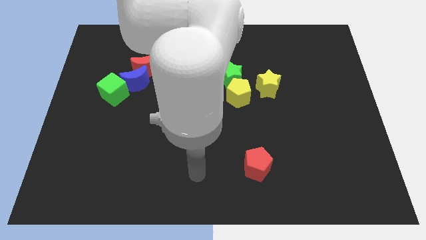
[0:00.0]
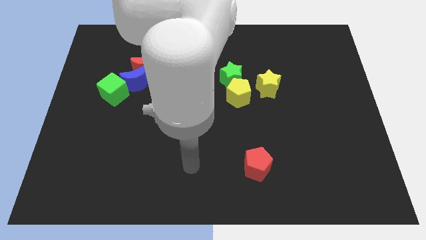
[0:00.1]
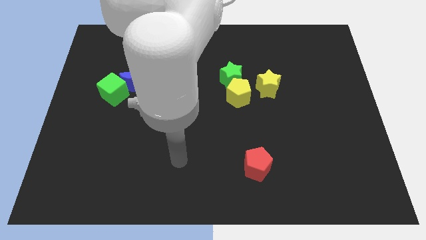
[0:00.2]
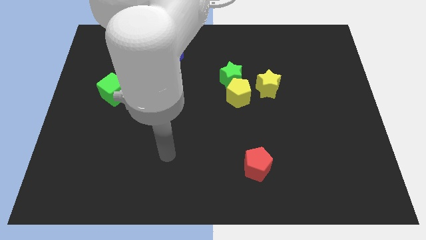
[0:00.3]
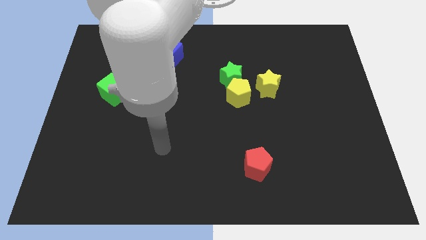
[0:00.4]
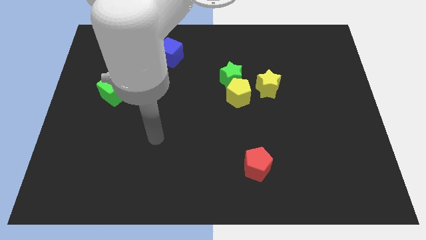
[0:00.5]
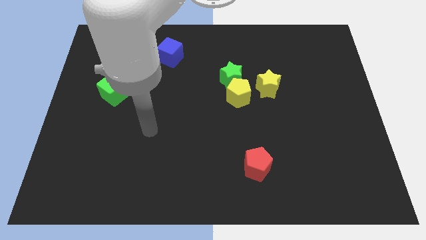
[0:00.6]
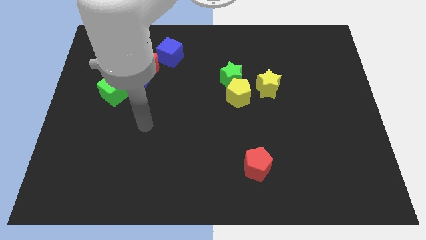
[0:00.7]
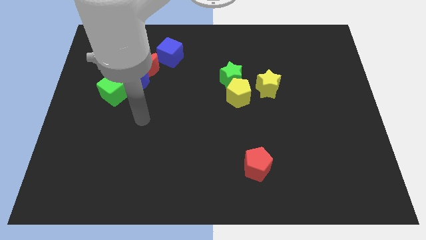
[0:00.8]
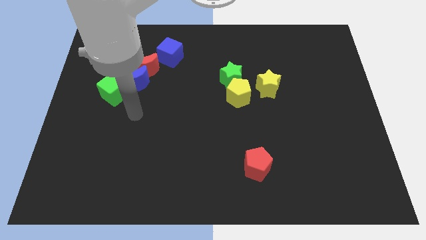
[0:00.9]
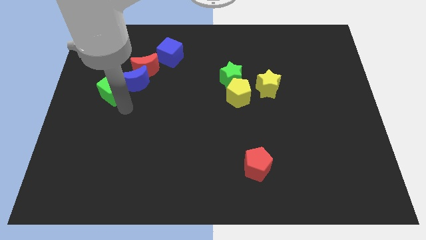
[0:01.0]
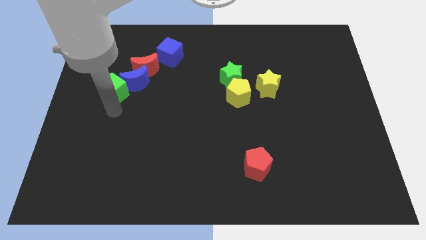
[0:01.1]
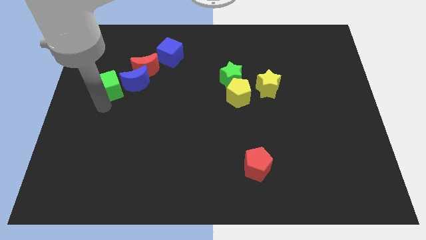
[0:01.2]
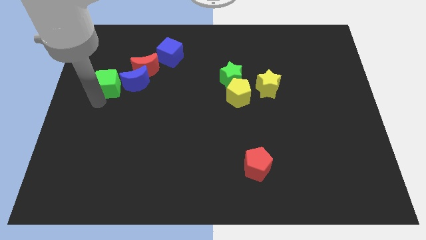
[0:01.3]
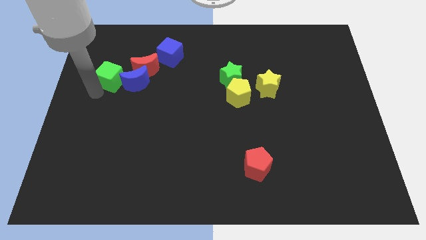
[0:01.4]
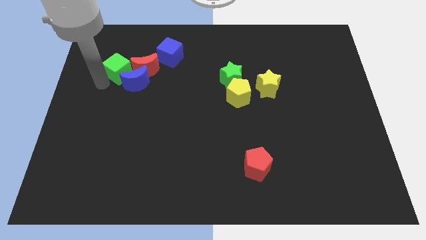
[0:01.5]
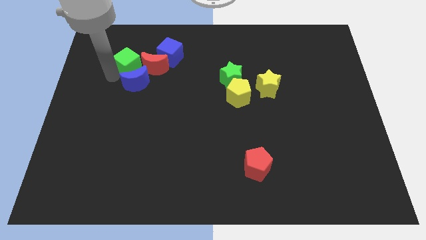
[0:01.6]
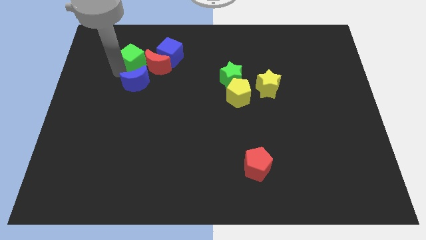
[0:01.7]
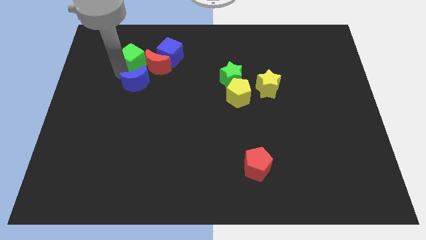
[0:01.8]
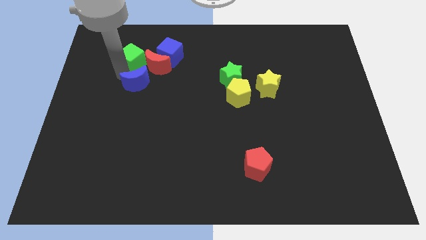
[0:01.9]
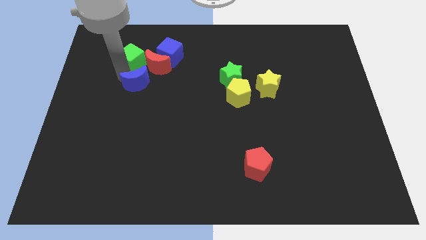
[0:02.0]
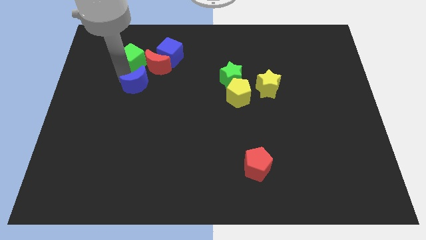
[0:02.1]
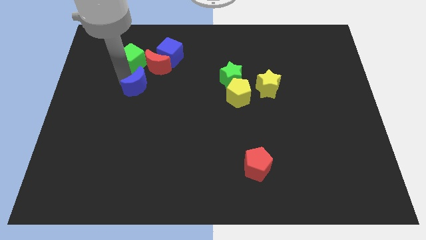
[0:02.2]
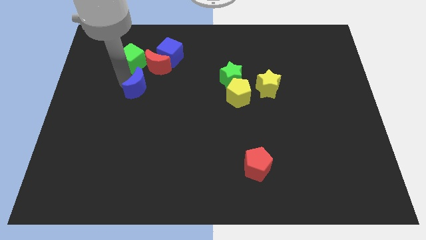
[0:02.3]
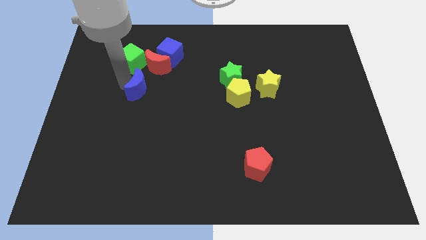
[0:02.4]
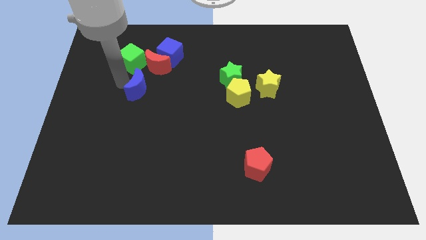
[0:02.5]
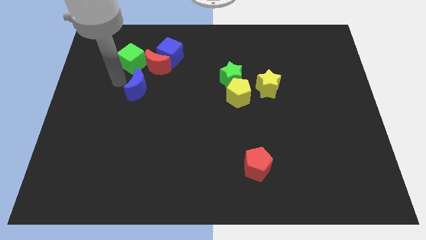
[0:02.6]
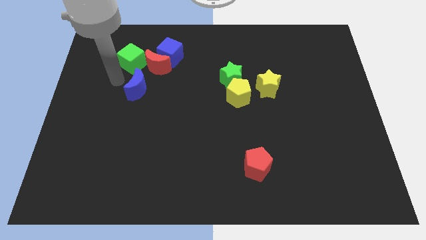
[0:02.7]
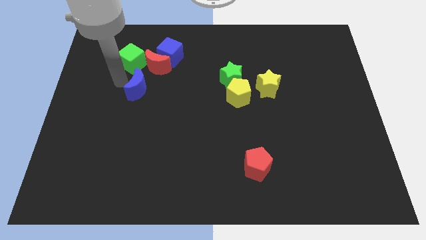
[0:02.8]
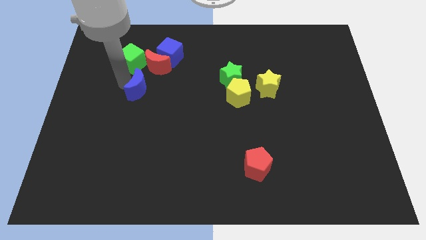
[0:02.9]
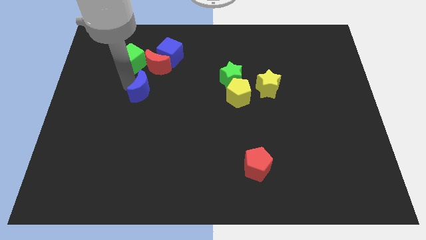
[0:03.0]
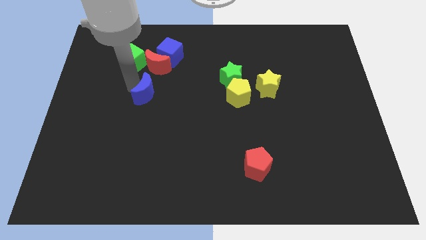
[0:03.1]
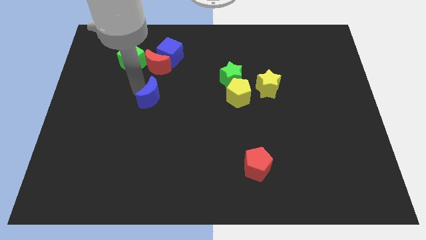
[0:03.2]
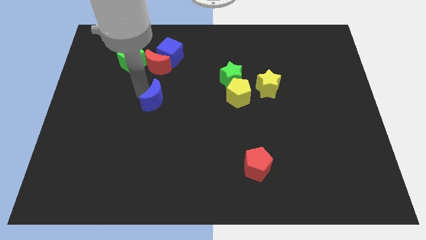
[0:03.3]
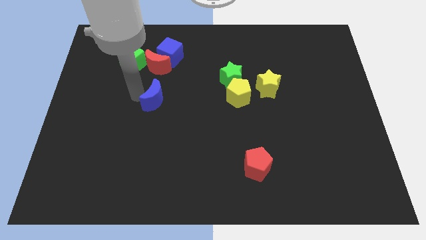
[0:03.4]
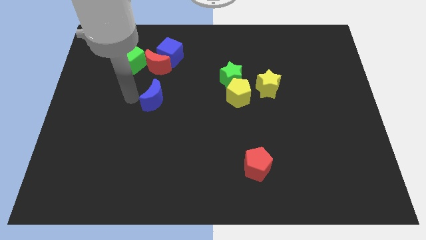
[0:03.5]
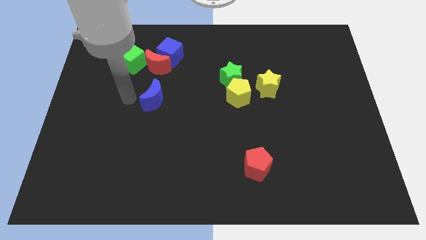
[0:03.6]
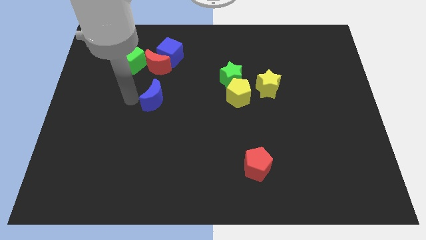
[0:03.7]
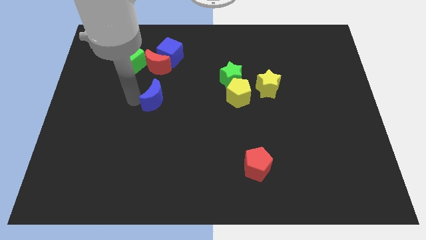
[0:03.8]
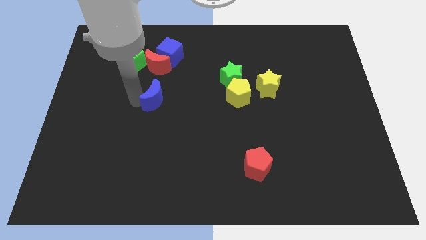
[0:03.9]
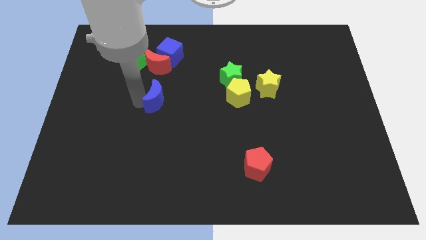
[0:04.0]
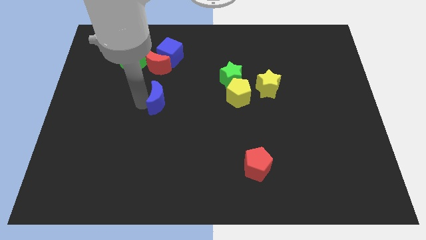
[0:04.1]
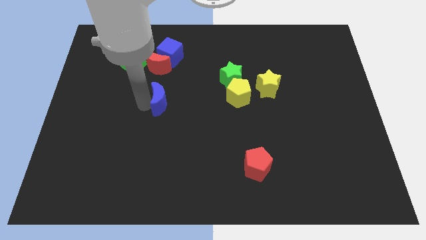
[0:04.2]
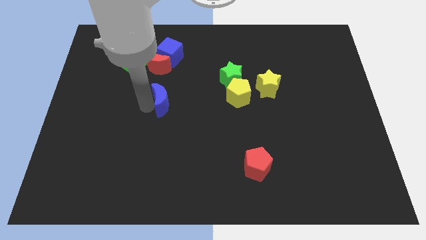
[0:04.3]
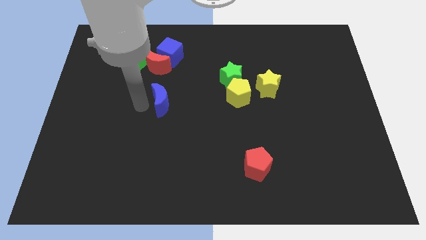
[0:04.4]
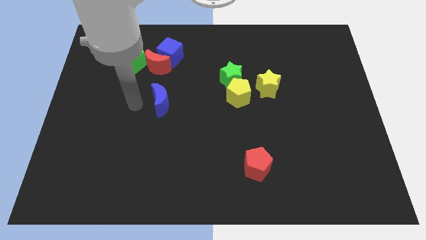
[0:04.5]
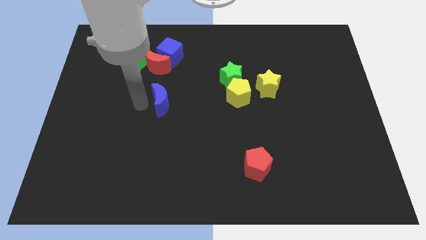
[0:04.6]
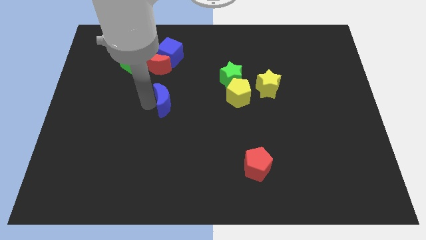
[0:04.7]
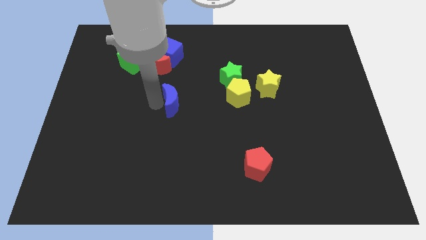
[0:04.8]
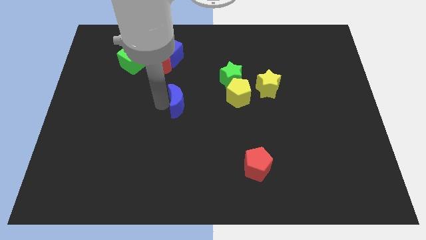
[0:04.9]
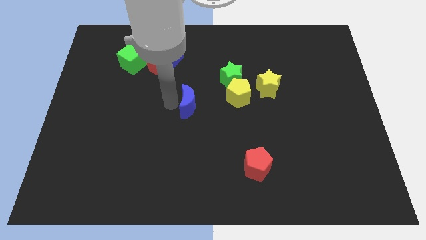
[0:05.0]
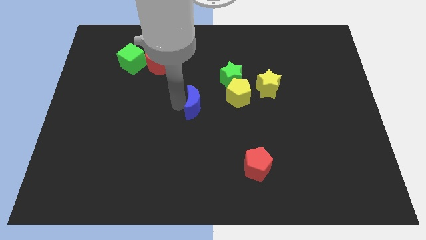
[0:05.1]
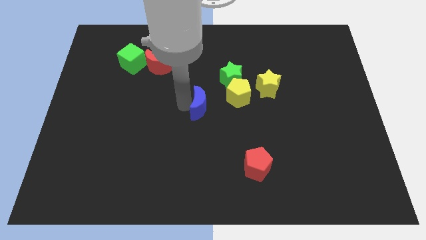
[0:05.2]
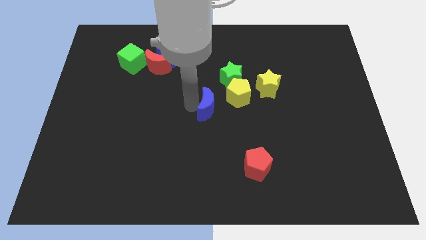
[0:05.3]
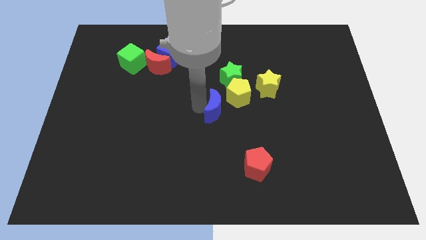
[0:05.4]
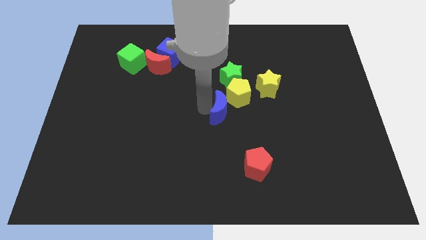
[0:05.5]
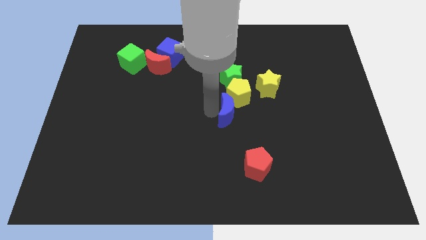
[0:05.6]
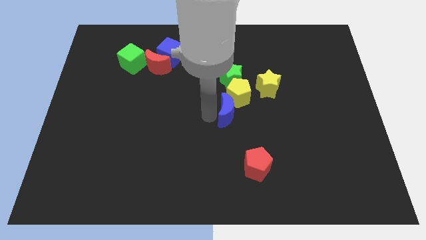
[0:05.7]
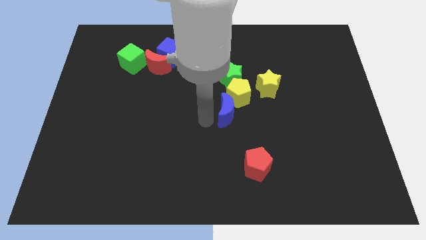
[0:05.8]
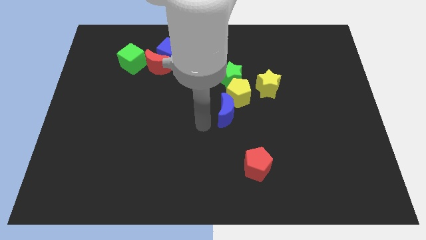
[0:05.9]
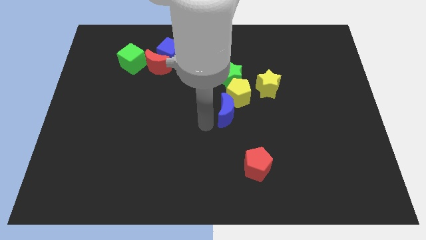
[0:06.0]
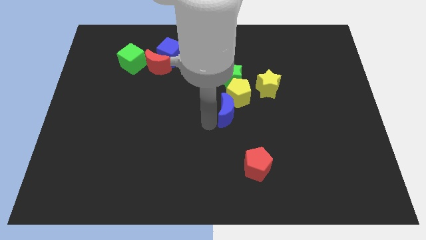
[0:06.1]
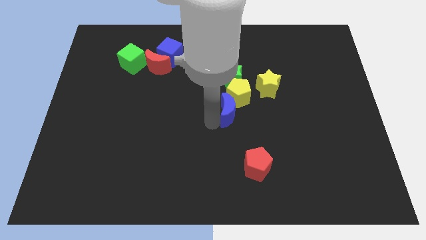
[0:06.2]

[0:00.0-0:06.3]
slide the blue moon diagonally down and to the left of the yellow star

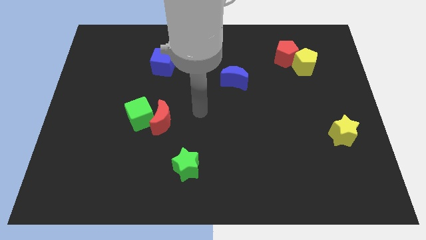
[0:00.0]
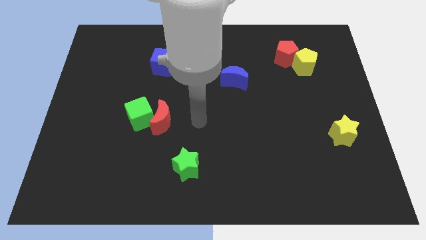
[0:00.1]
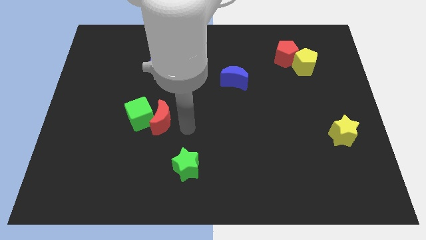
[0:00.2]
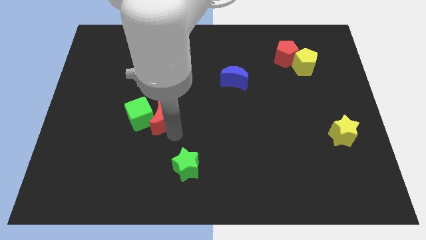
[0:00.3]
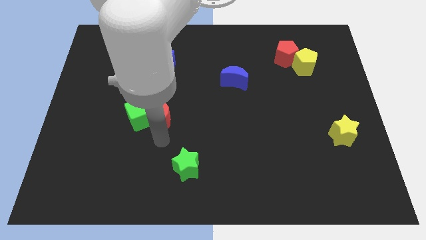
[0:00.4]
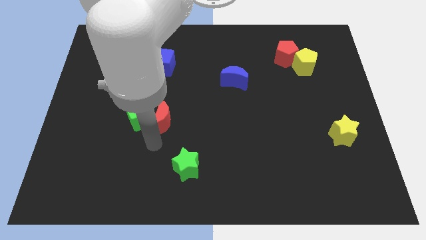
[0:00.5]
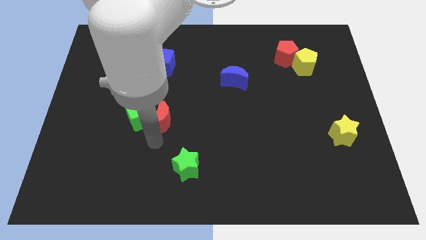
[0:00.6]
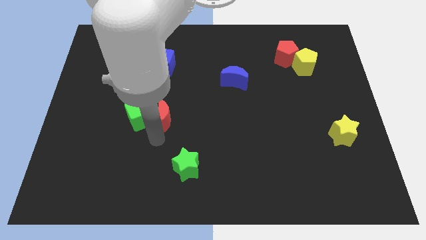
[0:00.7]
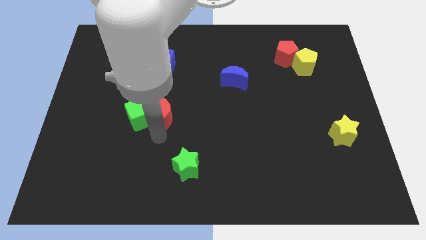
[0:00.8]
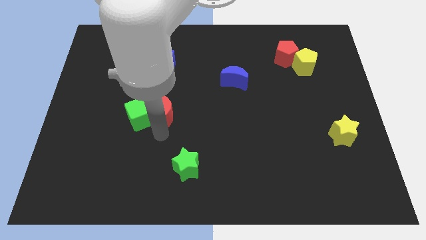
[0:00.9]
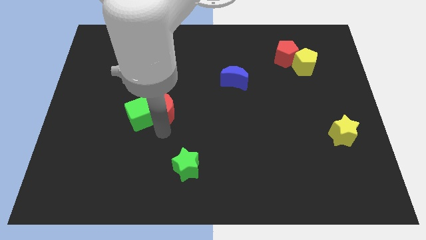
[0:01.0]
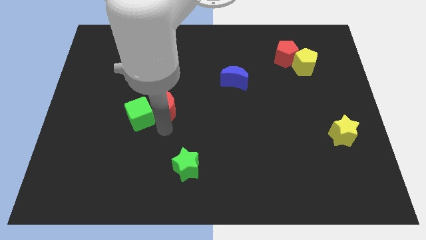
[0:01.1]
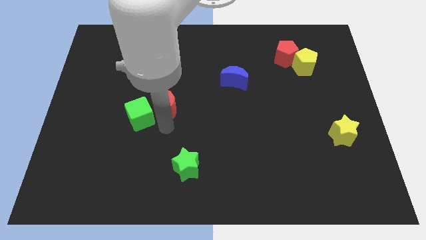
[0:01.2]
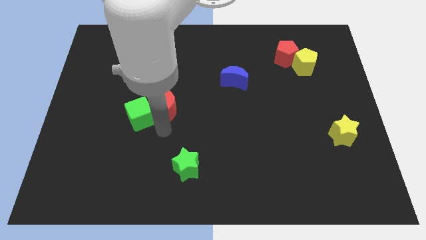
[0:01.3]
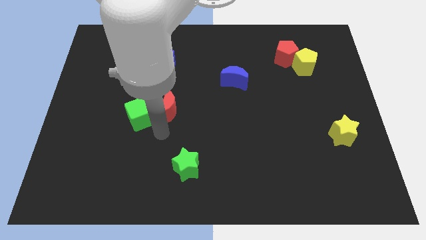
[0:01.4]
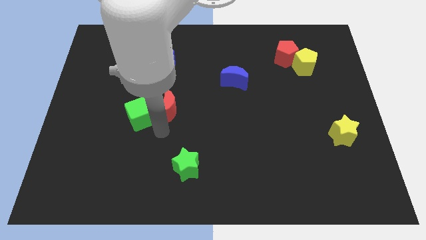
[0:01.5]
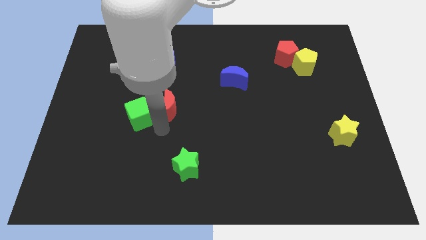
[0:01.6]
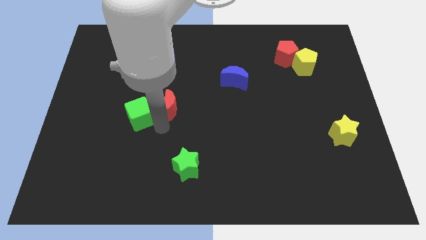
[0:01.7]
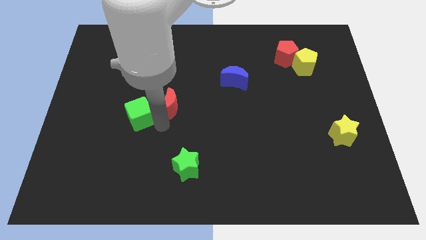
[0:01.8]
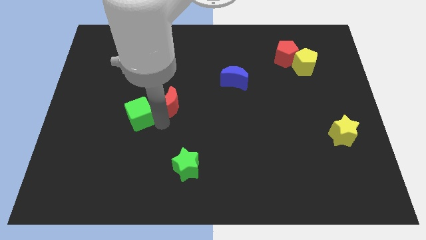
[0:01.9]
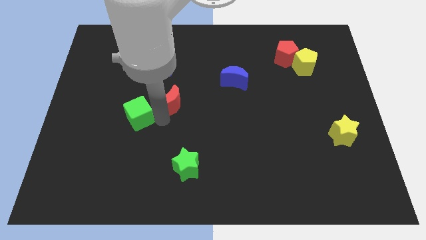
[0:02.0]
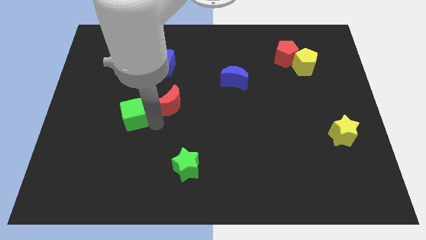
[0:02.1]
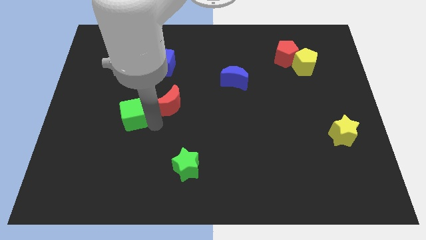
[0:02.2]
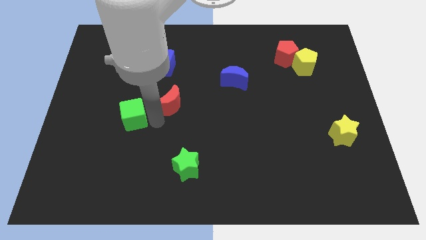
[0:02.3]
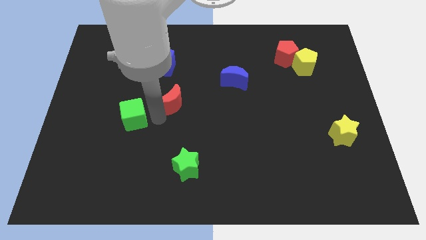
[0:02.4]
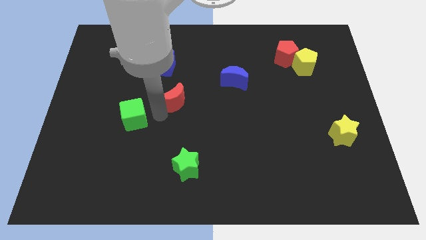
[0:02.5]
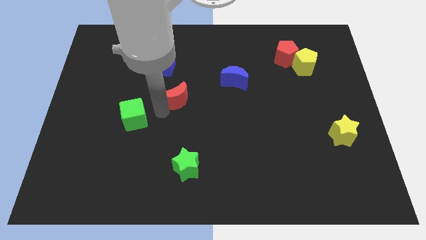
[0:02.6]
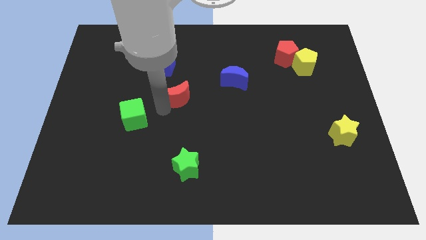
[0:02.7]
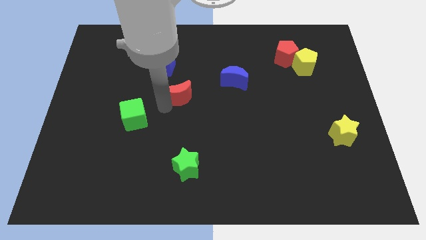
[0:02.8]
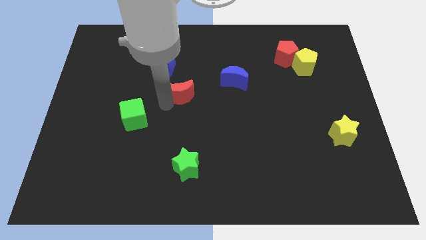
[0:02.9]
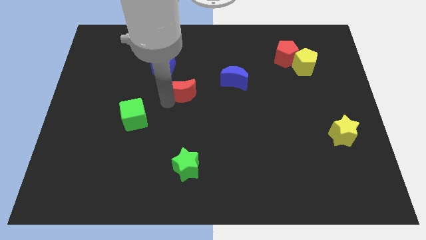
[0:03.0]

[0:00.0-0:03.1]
put the red moon left of the blue moon
